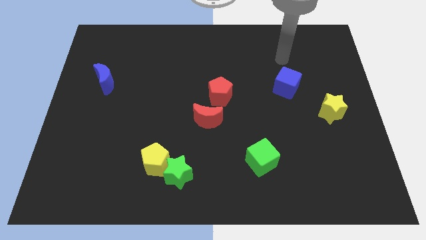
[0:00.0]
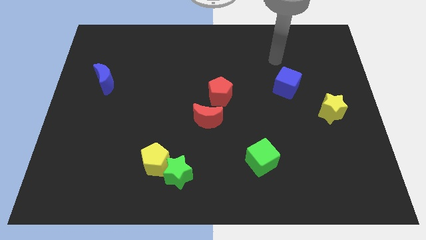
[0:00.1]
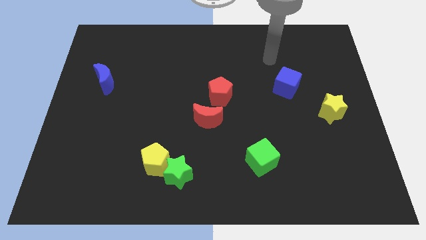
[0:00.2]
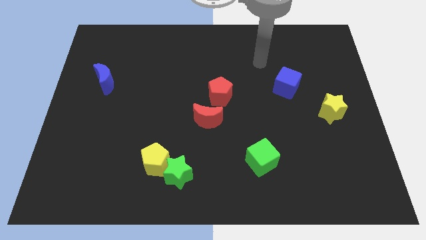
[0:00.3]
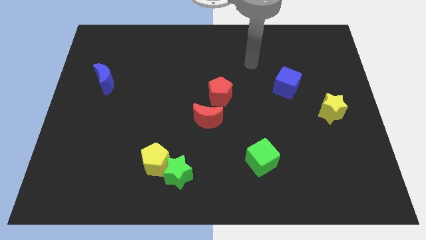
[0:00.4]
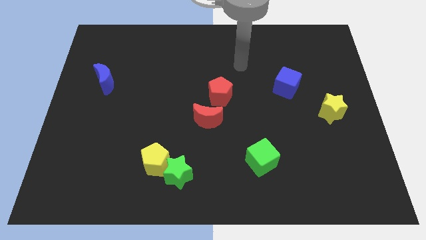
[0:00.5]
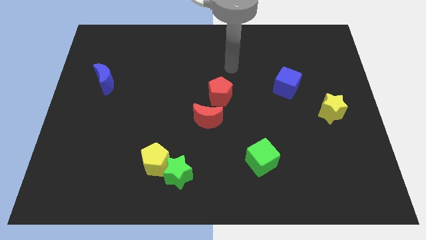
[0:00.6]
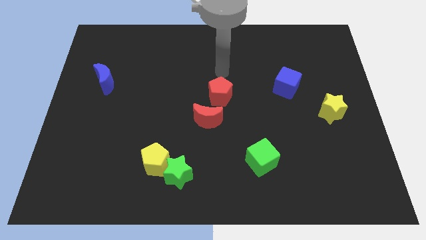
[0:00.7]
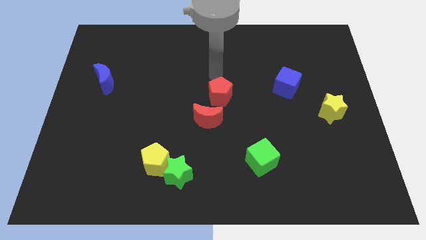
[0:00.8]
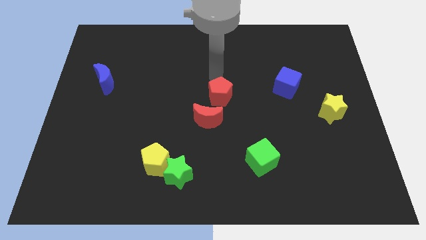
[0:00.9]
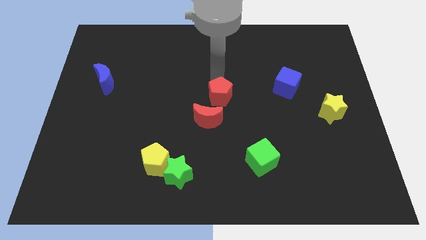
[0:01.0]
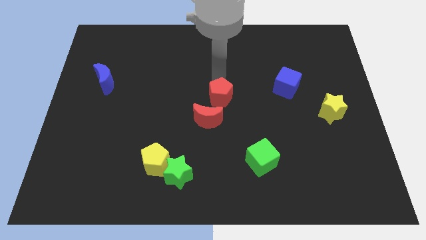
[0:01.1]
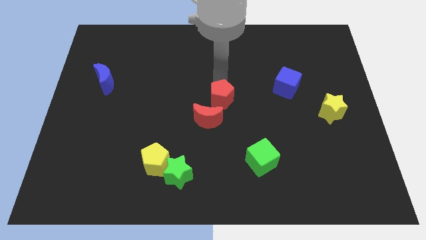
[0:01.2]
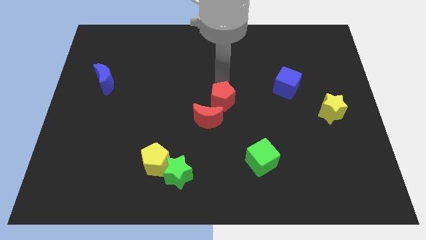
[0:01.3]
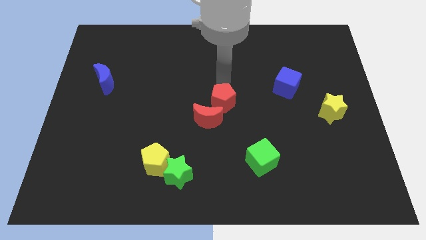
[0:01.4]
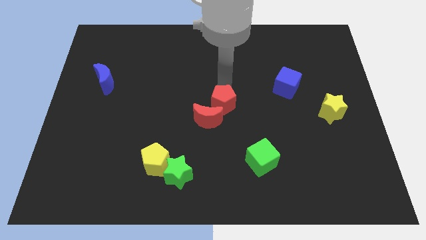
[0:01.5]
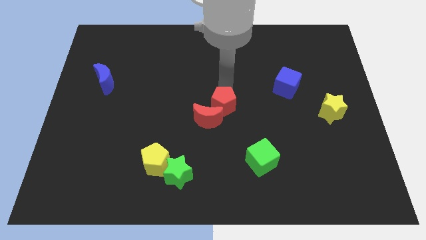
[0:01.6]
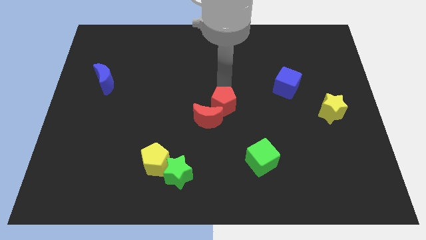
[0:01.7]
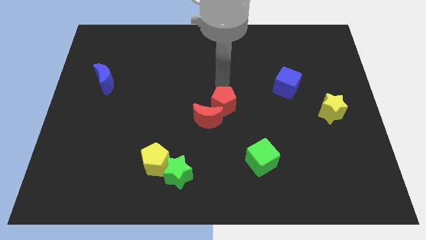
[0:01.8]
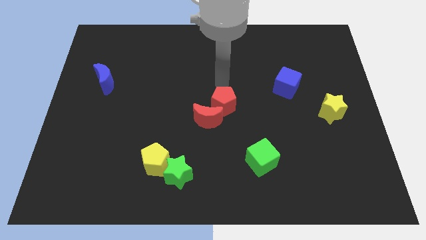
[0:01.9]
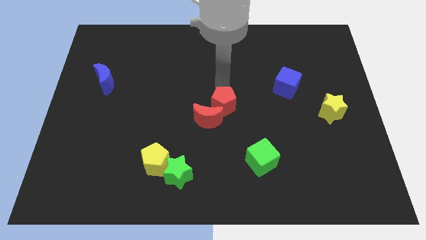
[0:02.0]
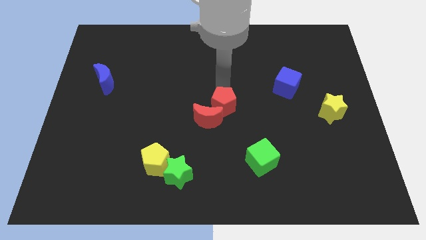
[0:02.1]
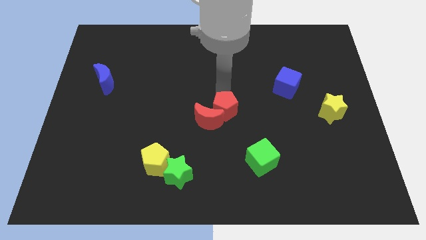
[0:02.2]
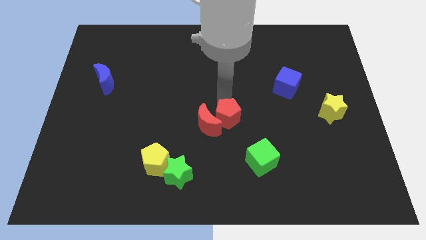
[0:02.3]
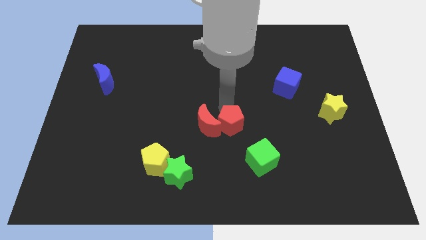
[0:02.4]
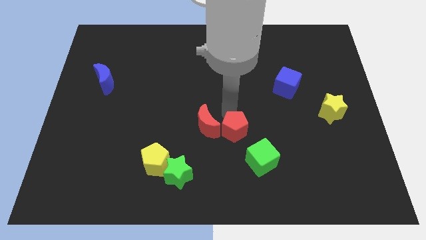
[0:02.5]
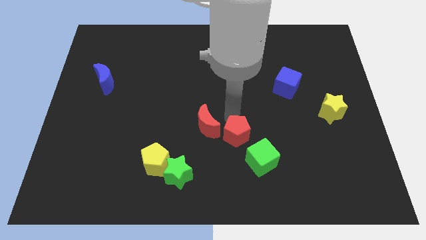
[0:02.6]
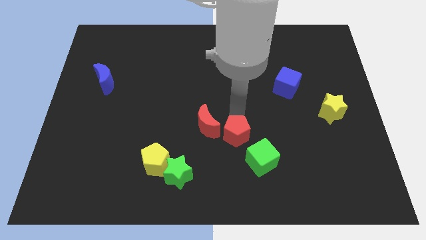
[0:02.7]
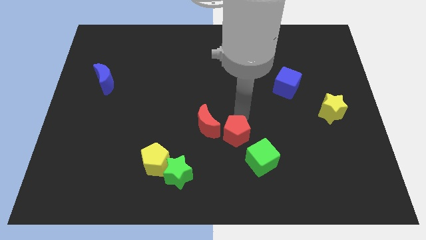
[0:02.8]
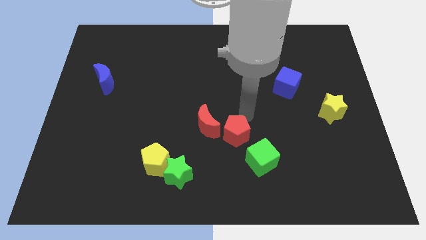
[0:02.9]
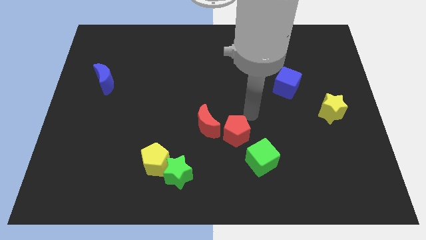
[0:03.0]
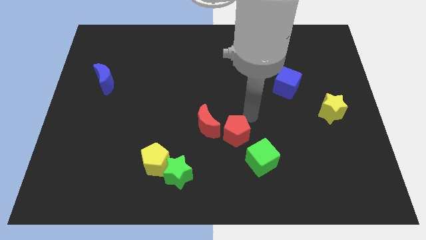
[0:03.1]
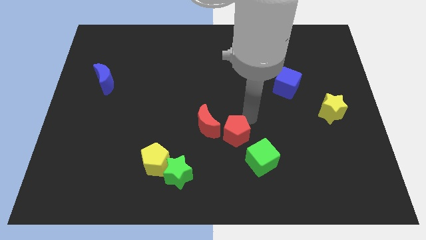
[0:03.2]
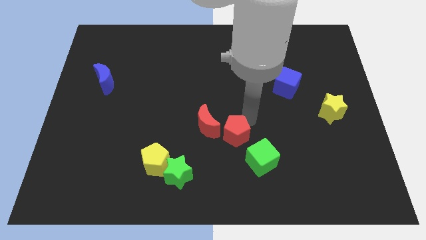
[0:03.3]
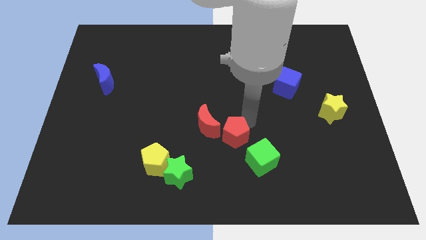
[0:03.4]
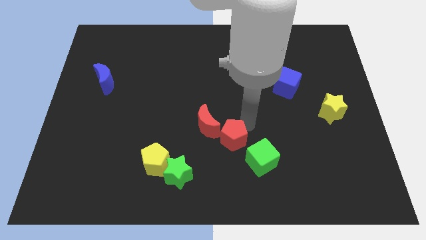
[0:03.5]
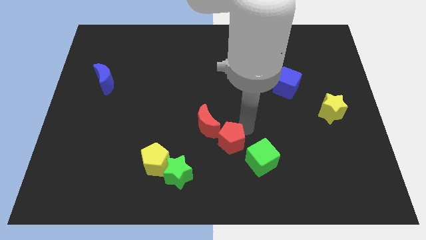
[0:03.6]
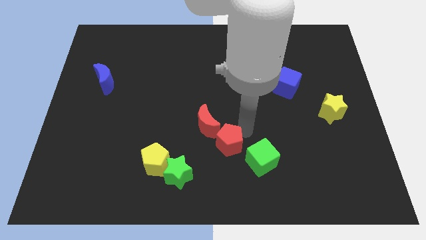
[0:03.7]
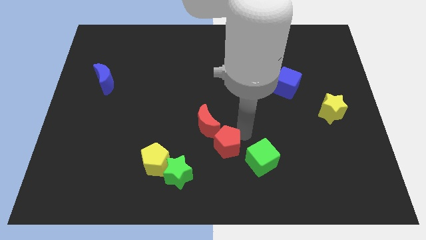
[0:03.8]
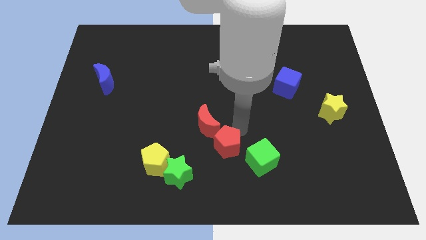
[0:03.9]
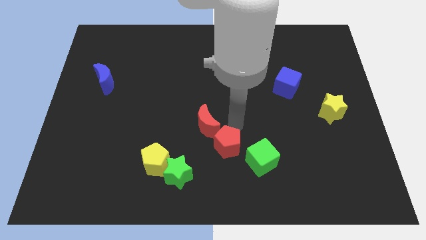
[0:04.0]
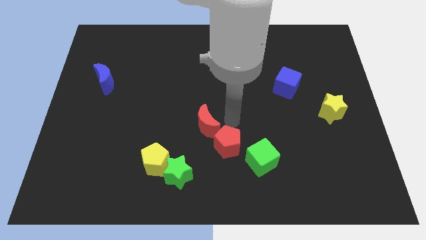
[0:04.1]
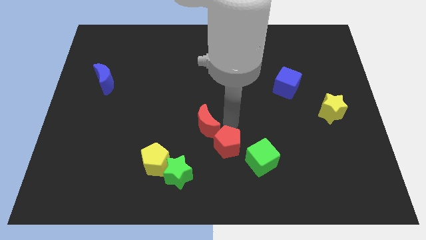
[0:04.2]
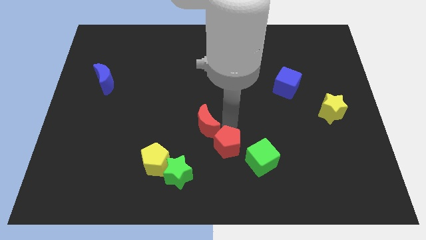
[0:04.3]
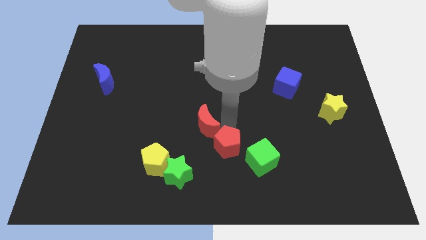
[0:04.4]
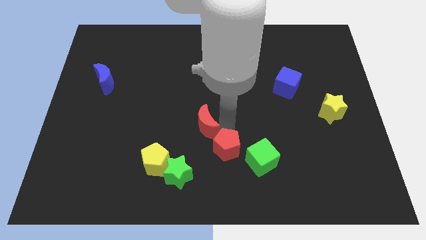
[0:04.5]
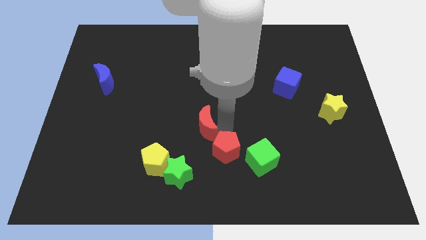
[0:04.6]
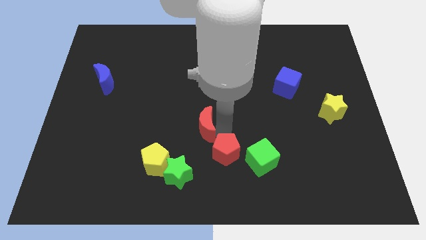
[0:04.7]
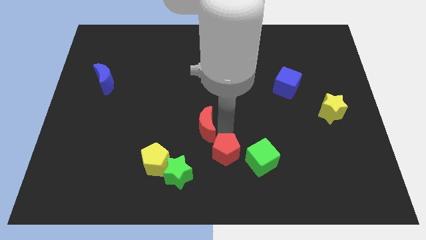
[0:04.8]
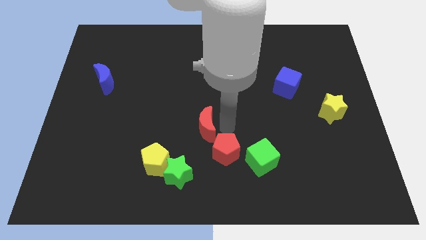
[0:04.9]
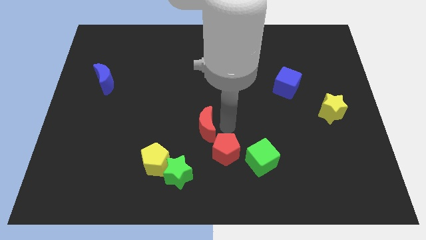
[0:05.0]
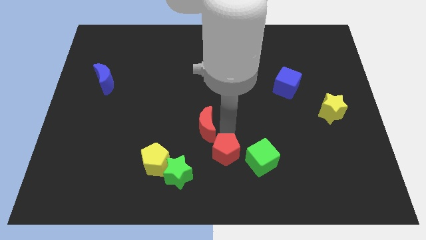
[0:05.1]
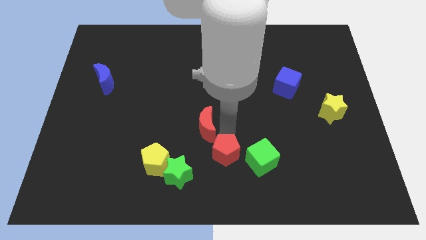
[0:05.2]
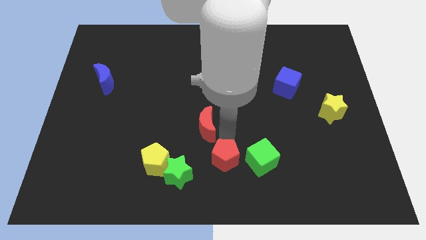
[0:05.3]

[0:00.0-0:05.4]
put the red pentagon to the bottom

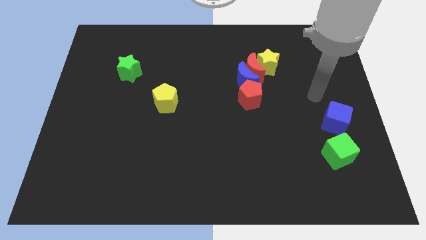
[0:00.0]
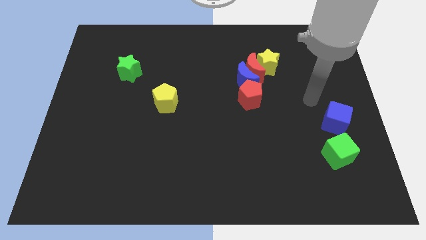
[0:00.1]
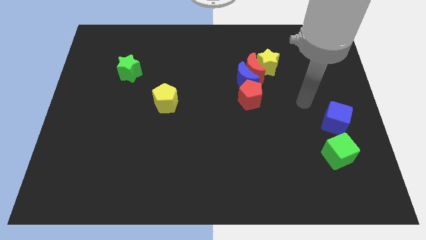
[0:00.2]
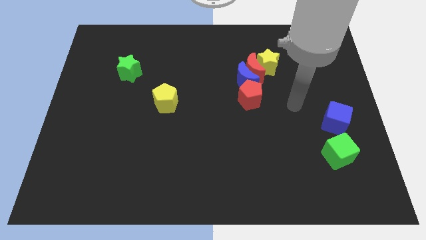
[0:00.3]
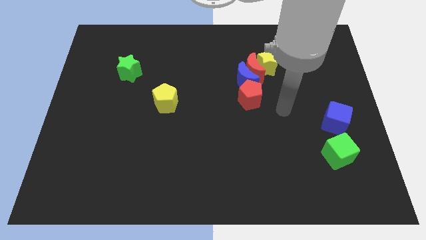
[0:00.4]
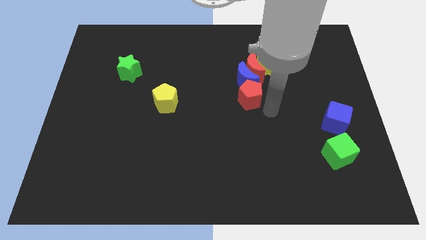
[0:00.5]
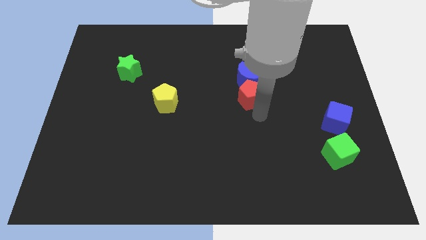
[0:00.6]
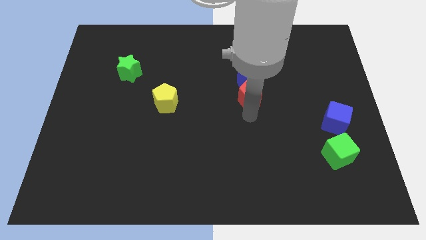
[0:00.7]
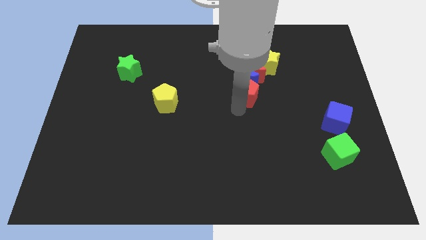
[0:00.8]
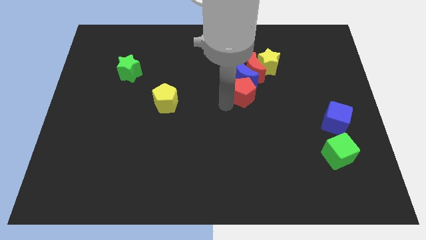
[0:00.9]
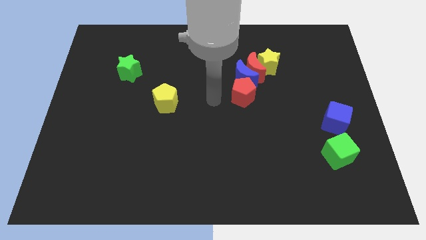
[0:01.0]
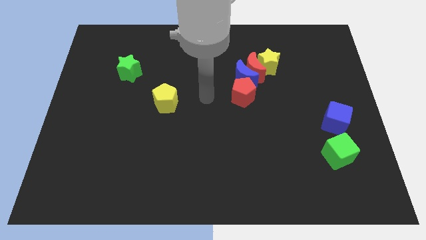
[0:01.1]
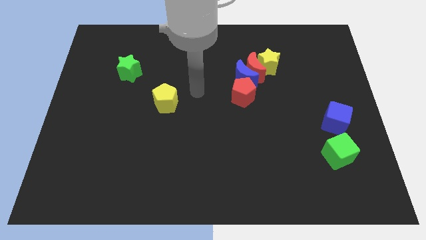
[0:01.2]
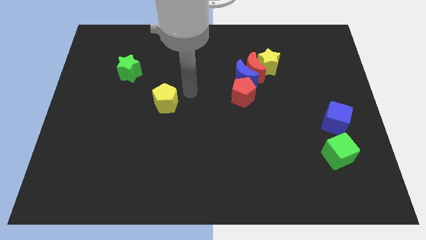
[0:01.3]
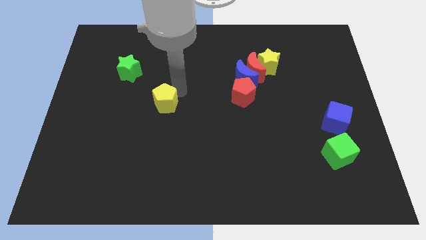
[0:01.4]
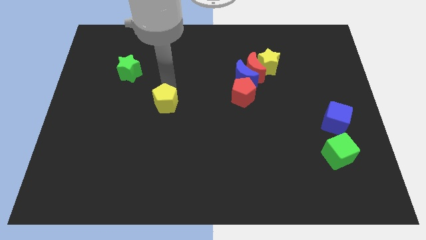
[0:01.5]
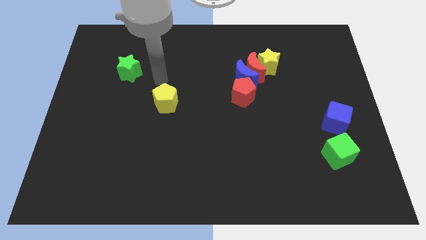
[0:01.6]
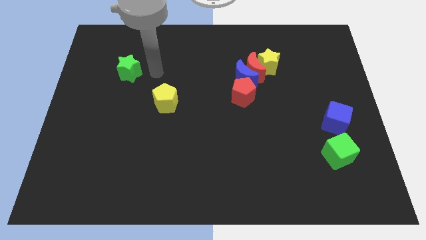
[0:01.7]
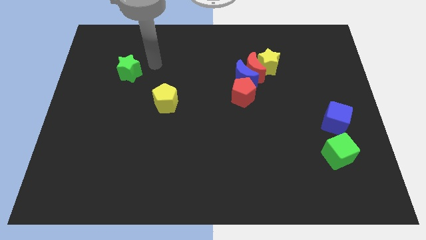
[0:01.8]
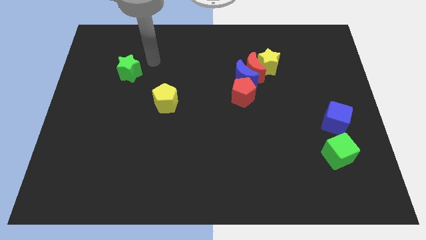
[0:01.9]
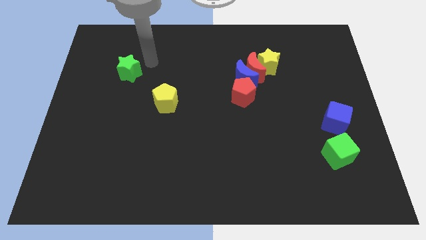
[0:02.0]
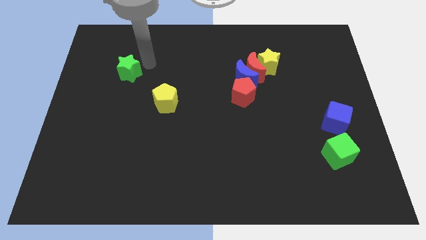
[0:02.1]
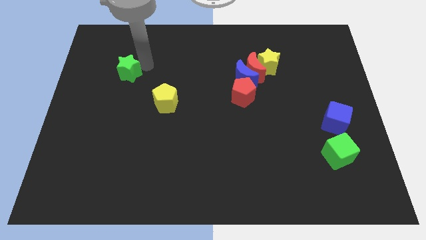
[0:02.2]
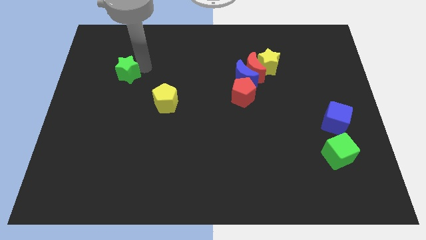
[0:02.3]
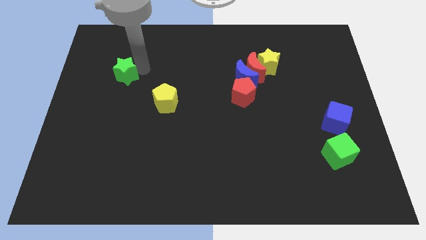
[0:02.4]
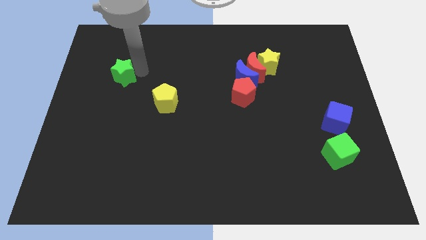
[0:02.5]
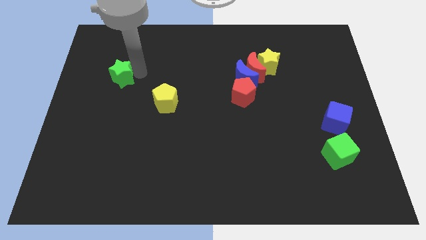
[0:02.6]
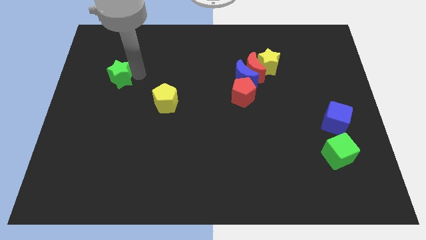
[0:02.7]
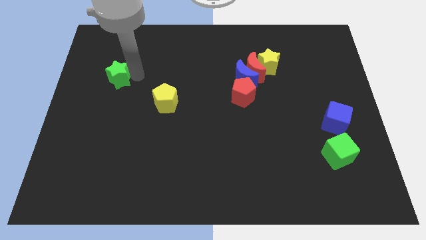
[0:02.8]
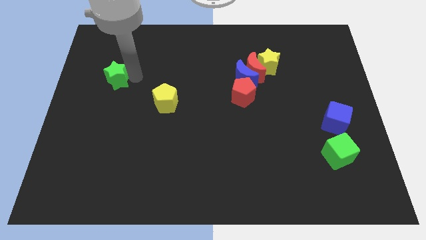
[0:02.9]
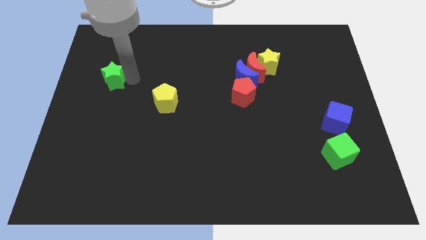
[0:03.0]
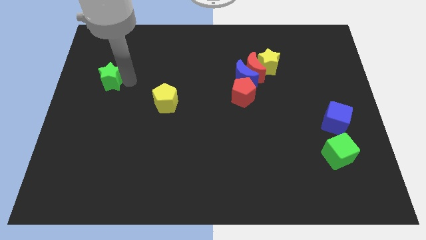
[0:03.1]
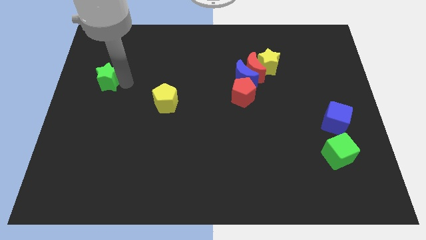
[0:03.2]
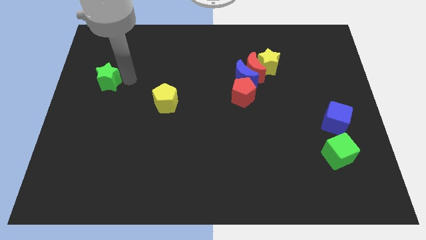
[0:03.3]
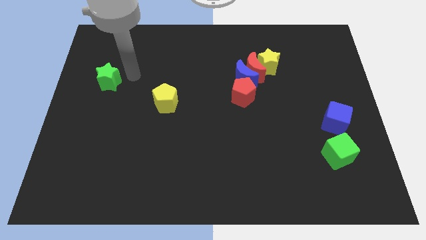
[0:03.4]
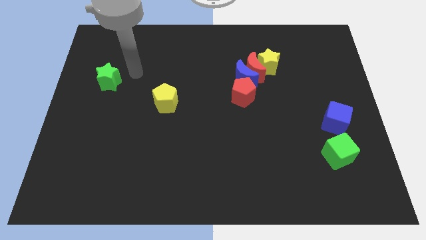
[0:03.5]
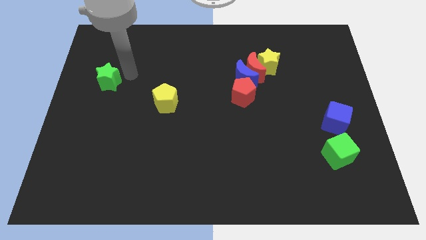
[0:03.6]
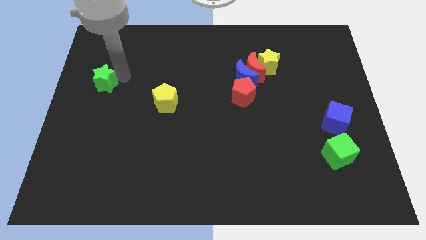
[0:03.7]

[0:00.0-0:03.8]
slide the green star to the center left
